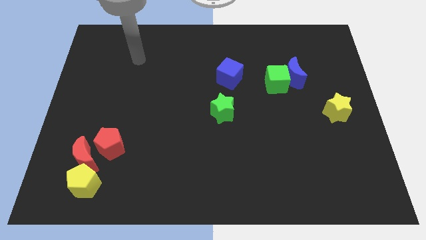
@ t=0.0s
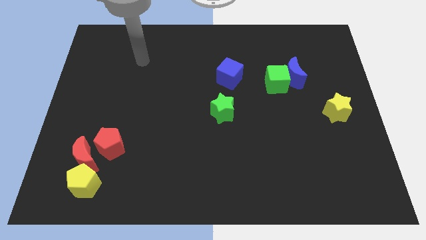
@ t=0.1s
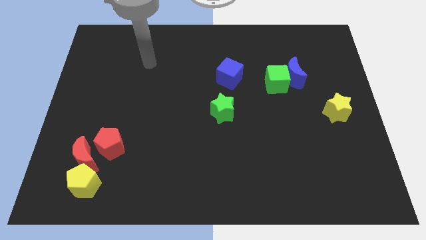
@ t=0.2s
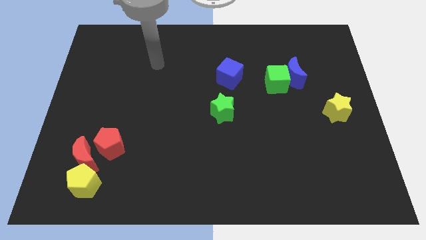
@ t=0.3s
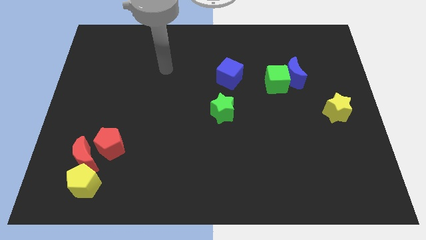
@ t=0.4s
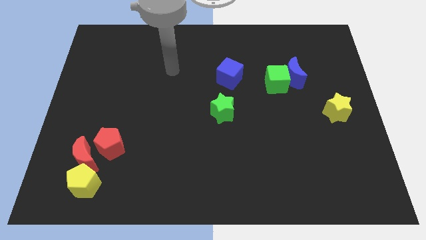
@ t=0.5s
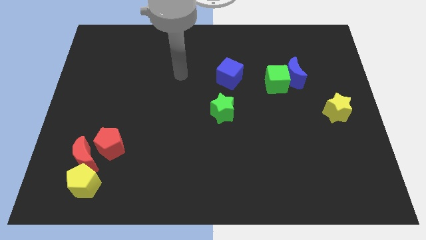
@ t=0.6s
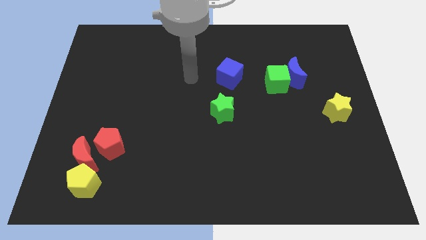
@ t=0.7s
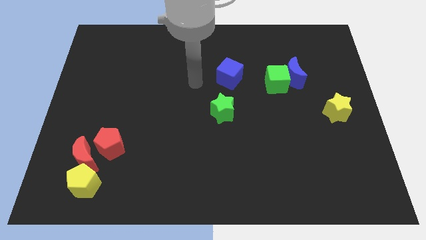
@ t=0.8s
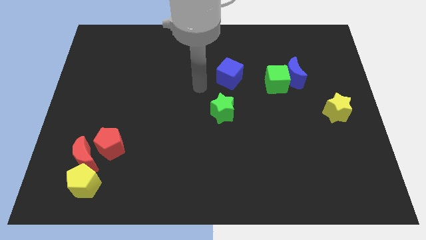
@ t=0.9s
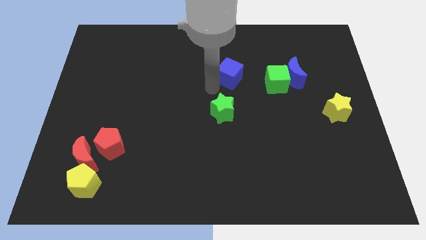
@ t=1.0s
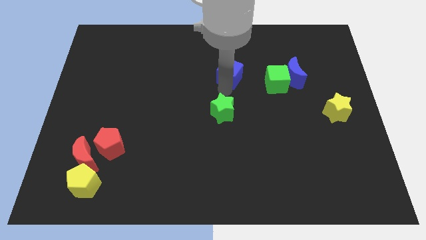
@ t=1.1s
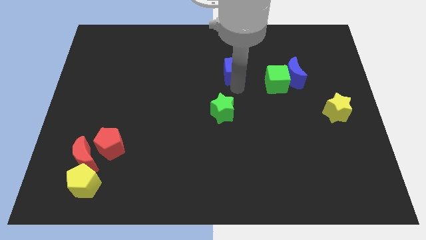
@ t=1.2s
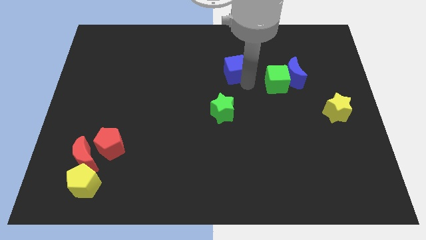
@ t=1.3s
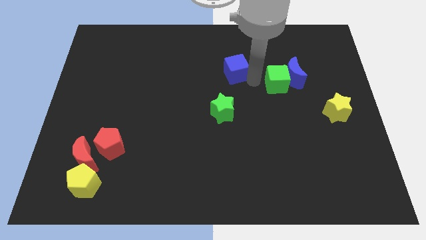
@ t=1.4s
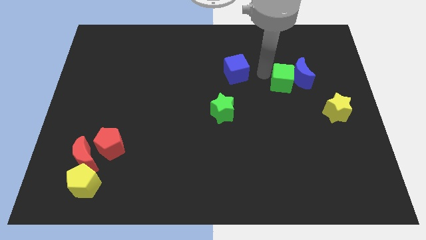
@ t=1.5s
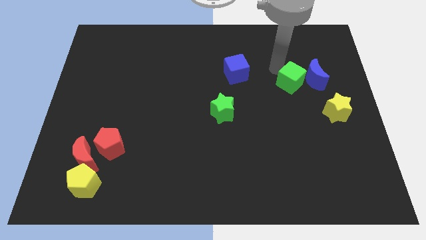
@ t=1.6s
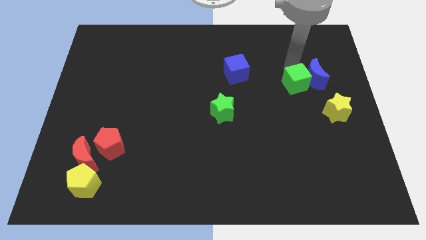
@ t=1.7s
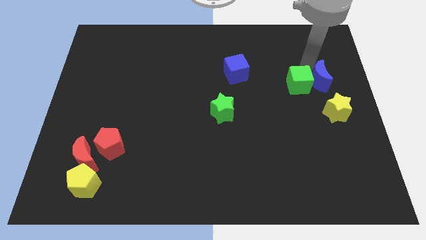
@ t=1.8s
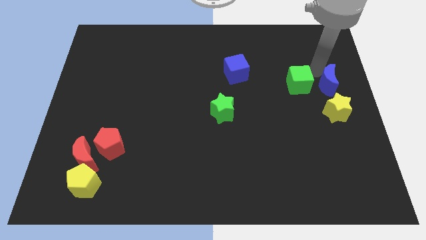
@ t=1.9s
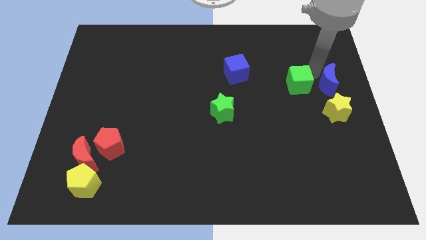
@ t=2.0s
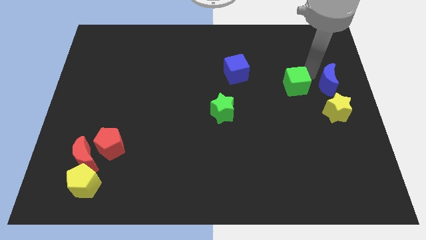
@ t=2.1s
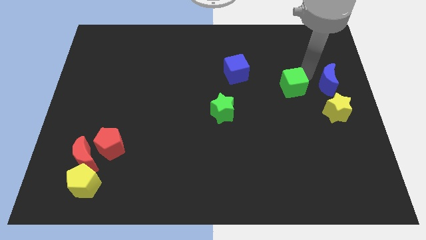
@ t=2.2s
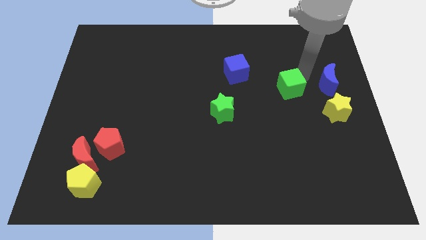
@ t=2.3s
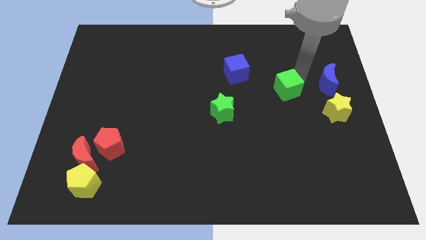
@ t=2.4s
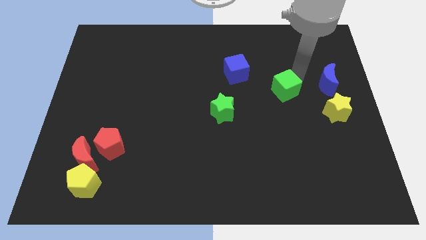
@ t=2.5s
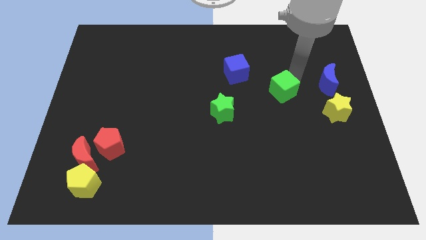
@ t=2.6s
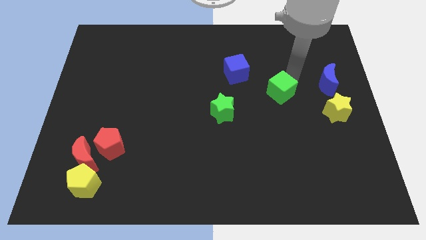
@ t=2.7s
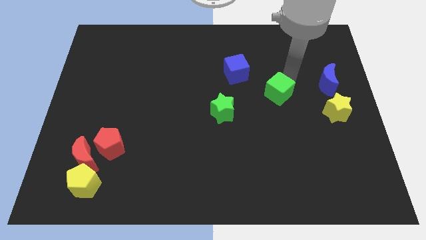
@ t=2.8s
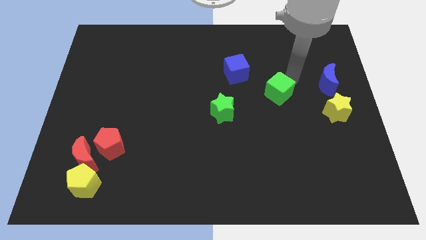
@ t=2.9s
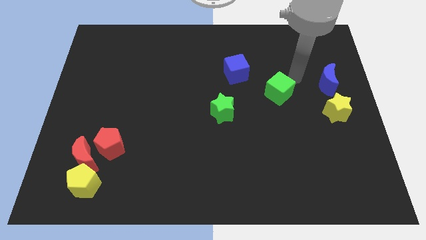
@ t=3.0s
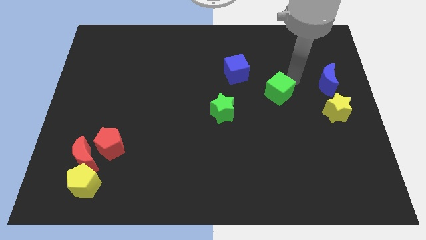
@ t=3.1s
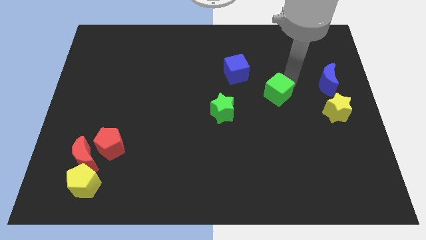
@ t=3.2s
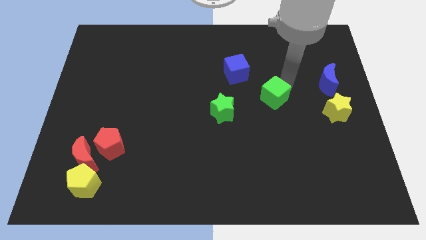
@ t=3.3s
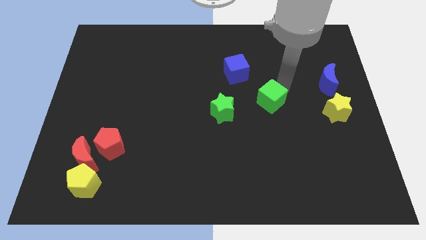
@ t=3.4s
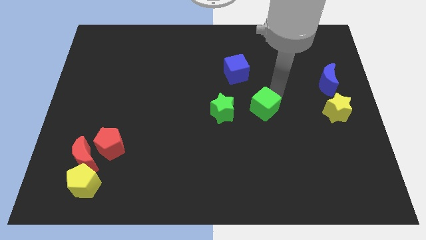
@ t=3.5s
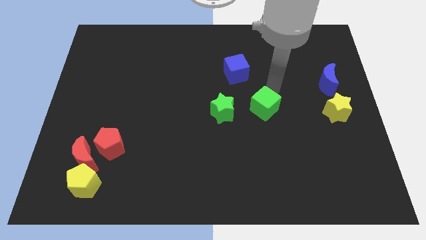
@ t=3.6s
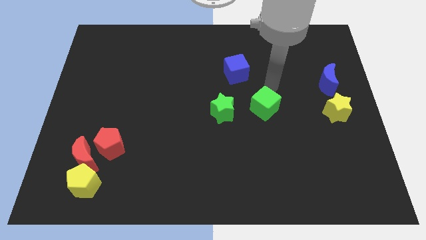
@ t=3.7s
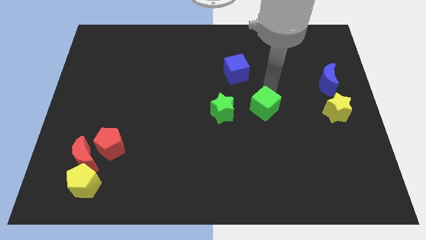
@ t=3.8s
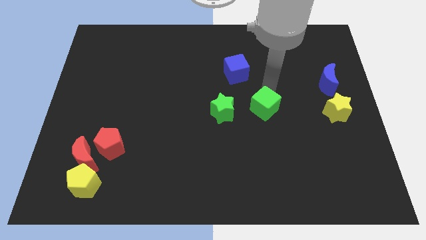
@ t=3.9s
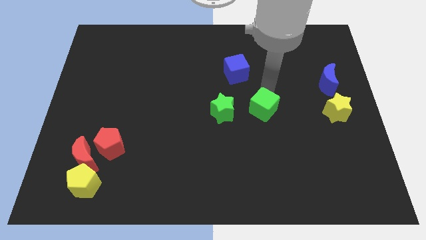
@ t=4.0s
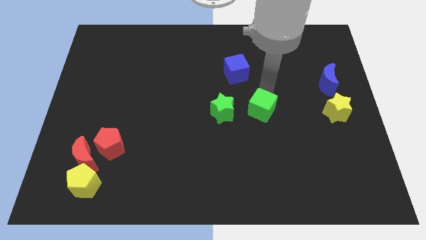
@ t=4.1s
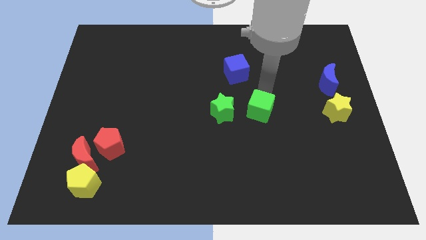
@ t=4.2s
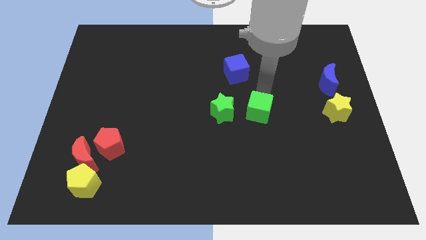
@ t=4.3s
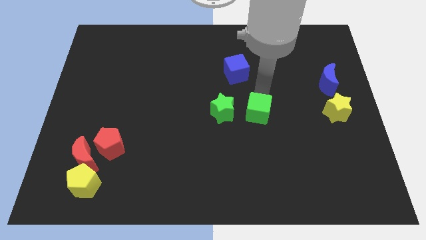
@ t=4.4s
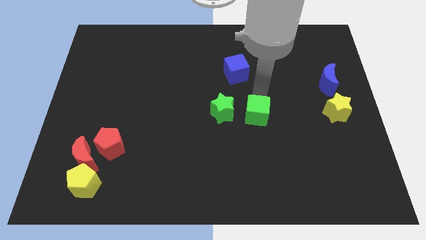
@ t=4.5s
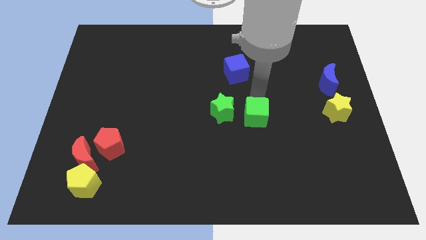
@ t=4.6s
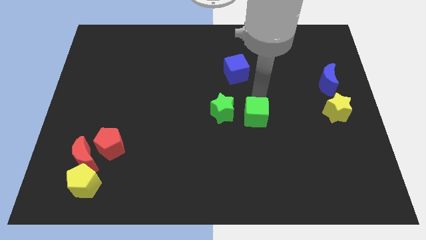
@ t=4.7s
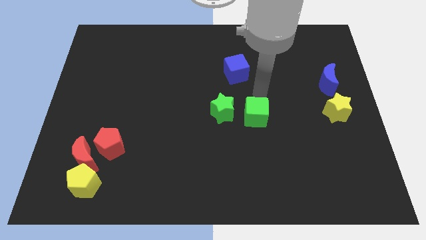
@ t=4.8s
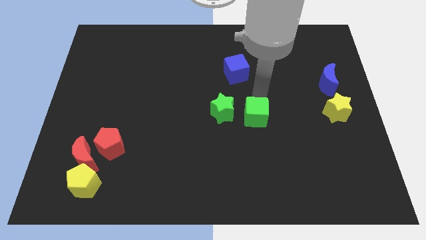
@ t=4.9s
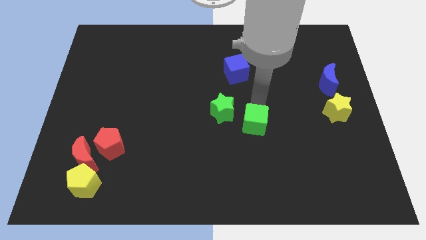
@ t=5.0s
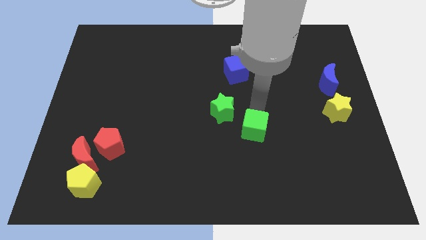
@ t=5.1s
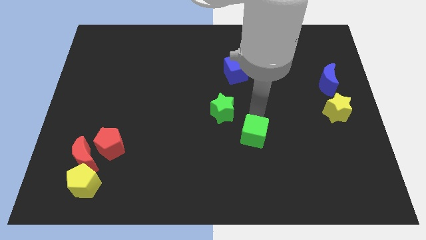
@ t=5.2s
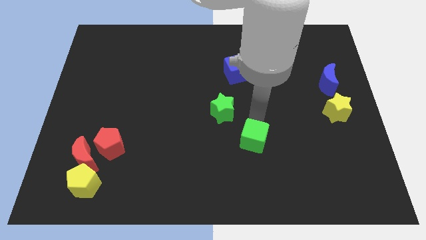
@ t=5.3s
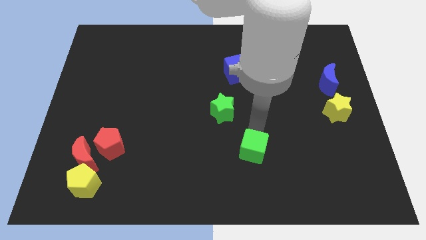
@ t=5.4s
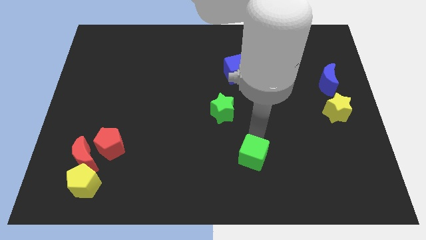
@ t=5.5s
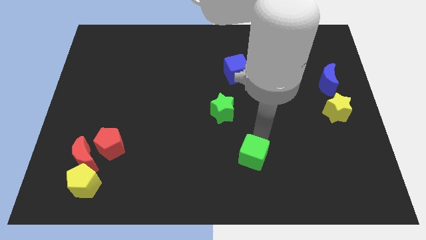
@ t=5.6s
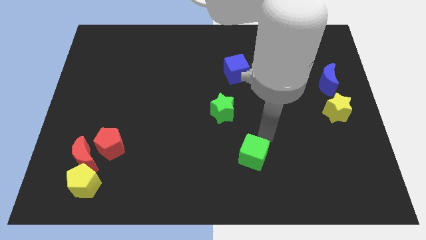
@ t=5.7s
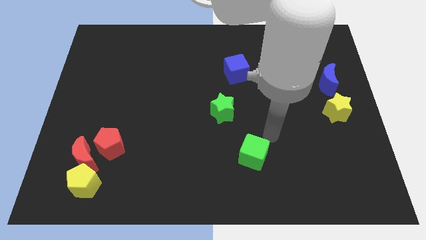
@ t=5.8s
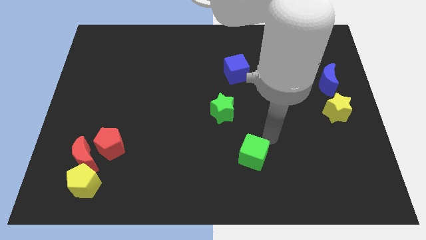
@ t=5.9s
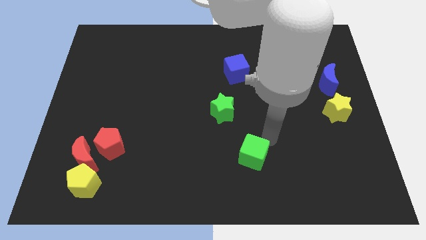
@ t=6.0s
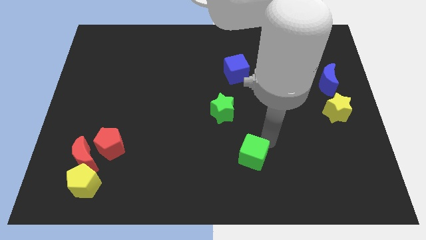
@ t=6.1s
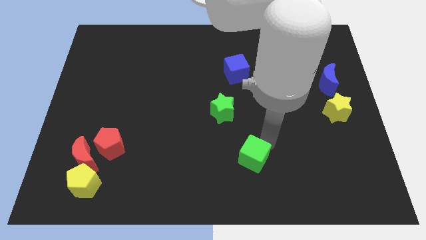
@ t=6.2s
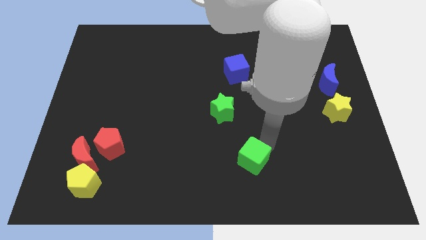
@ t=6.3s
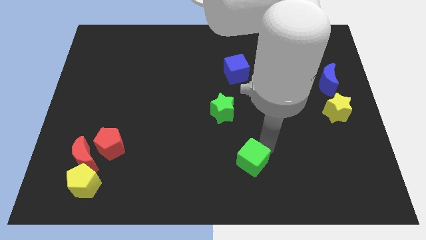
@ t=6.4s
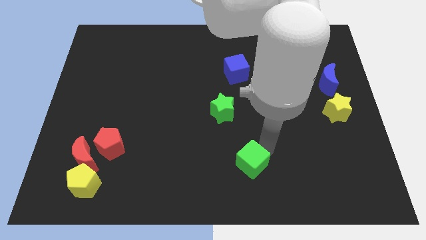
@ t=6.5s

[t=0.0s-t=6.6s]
push the green cube to the bottom side

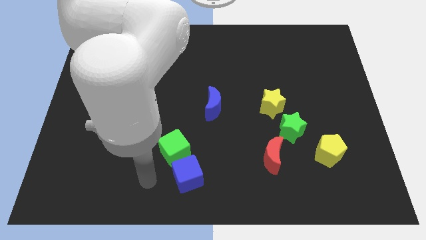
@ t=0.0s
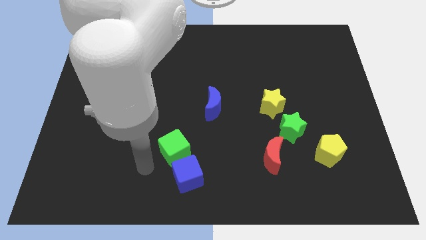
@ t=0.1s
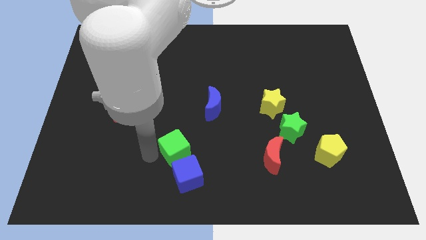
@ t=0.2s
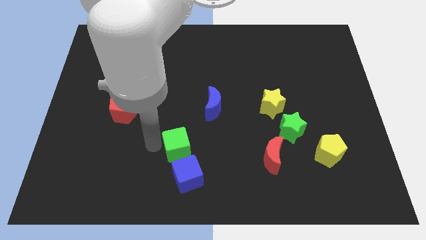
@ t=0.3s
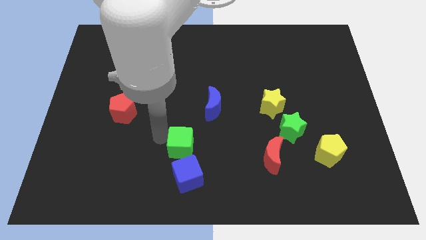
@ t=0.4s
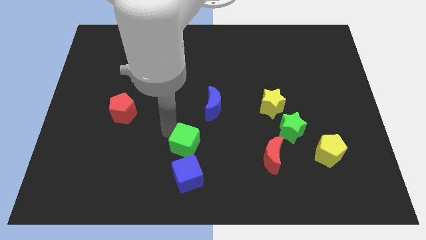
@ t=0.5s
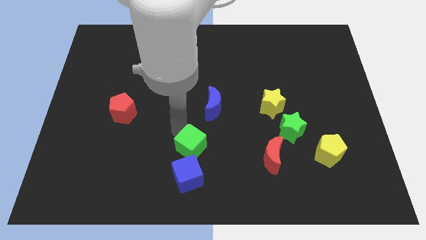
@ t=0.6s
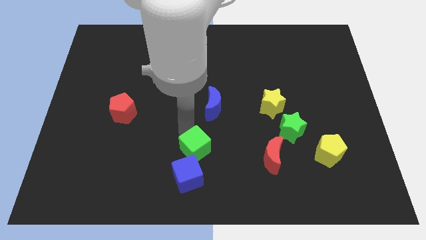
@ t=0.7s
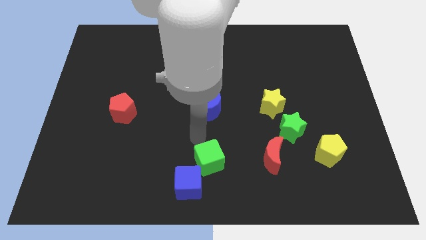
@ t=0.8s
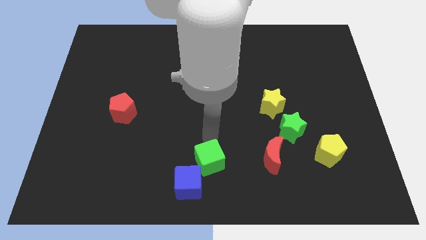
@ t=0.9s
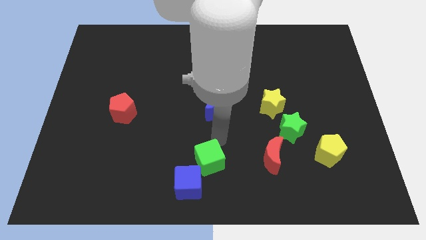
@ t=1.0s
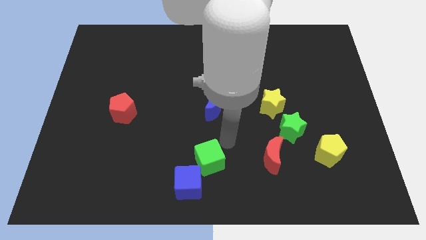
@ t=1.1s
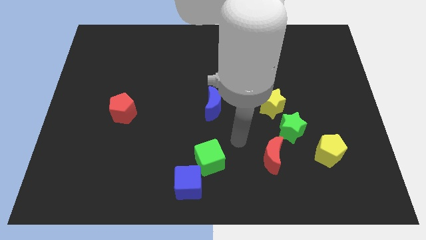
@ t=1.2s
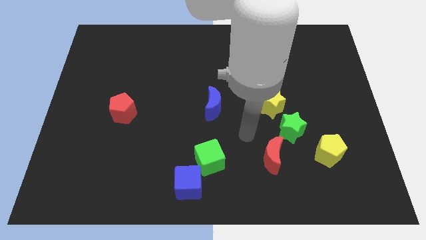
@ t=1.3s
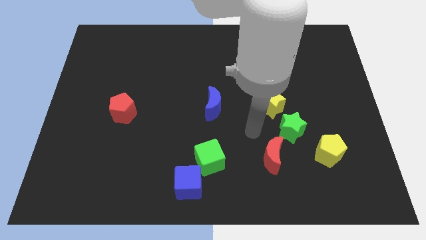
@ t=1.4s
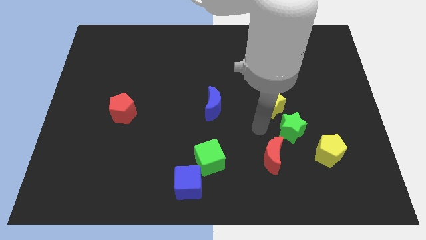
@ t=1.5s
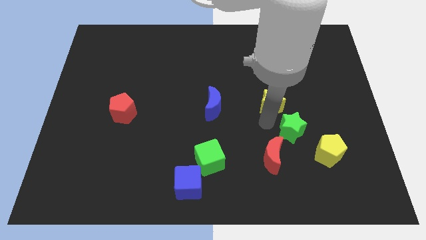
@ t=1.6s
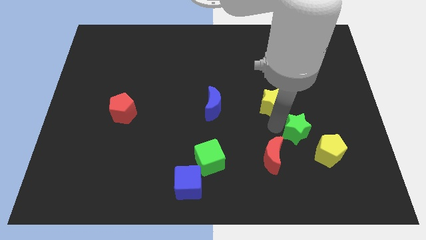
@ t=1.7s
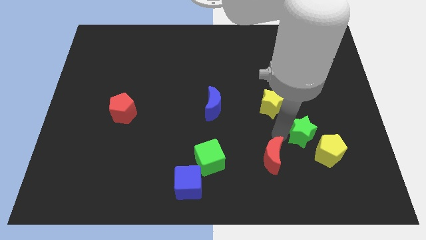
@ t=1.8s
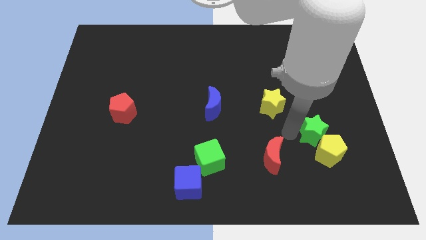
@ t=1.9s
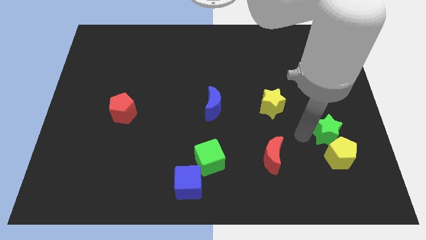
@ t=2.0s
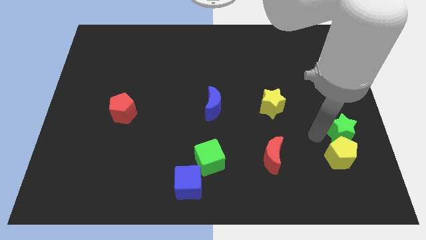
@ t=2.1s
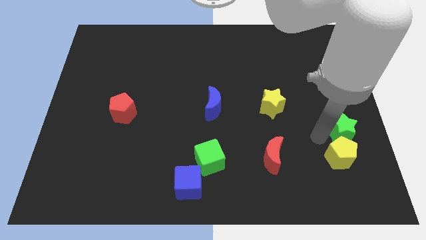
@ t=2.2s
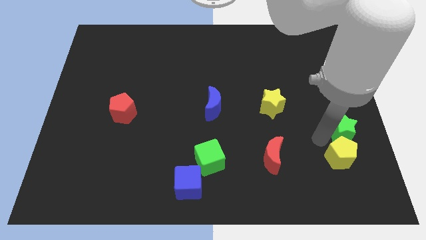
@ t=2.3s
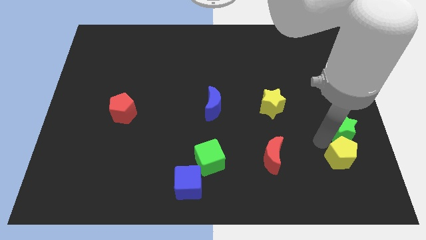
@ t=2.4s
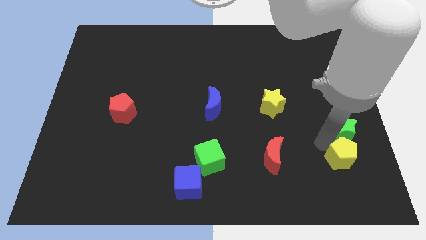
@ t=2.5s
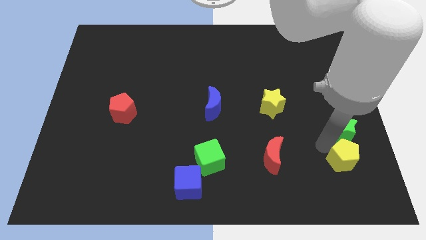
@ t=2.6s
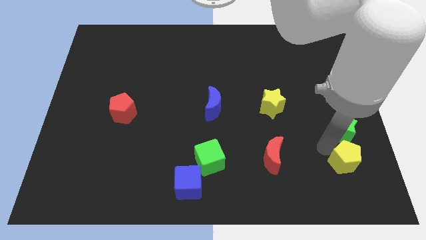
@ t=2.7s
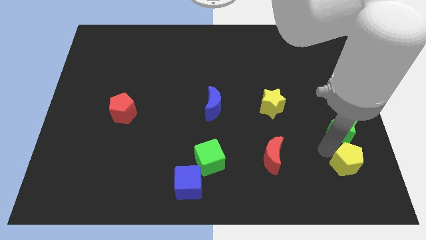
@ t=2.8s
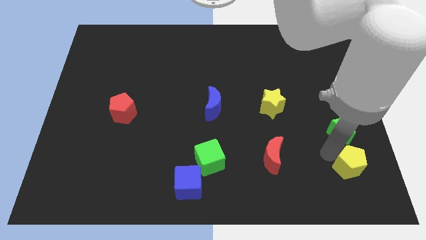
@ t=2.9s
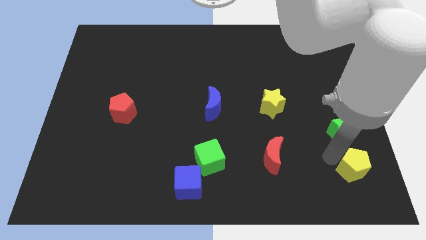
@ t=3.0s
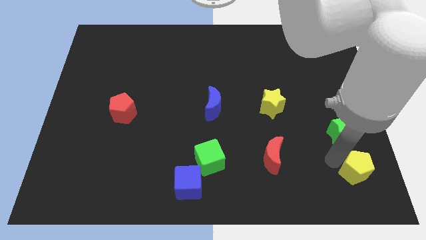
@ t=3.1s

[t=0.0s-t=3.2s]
move the yellow pentagon to the lower right corner
